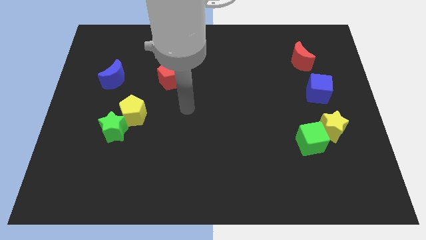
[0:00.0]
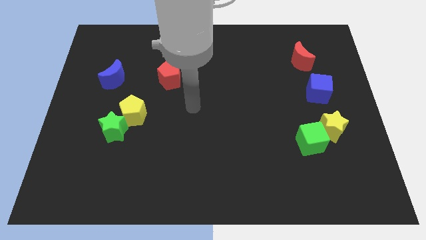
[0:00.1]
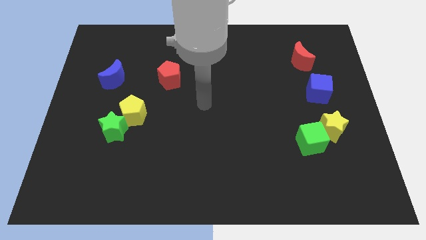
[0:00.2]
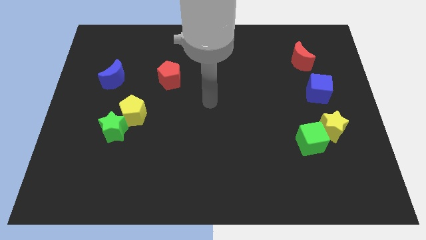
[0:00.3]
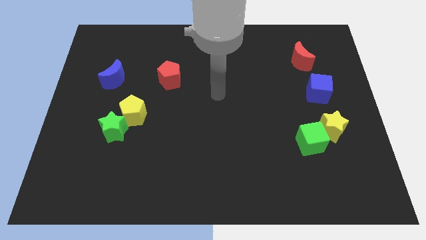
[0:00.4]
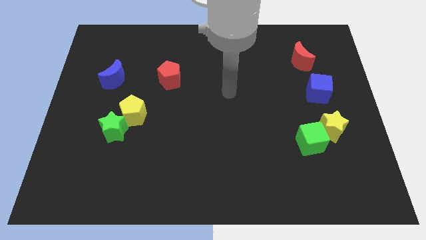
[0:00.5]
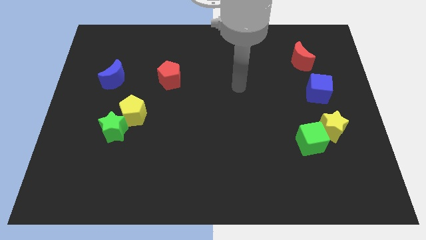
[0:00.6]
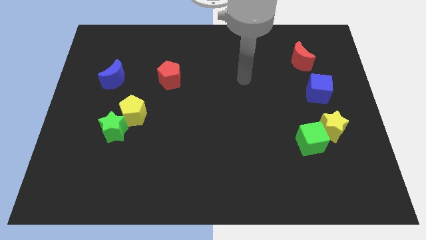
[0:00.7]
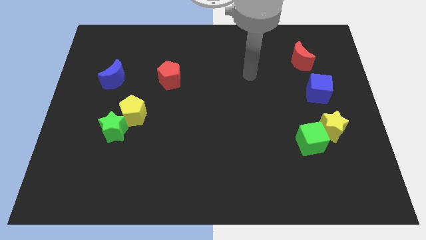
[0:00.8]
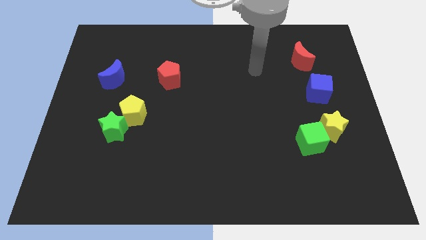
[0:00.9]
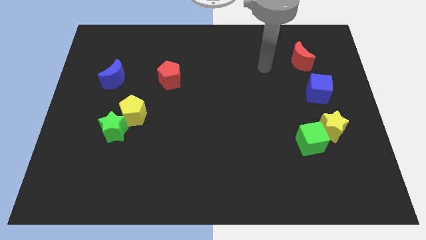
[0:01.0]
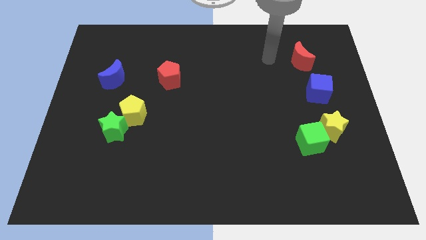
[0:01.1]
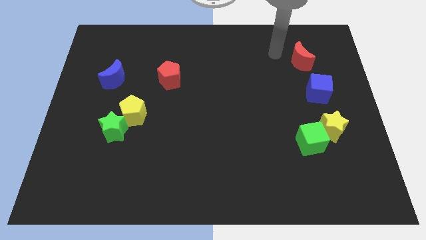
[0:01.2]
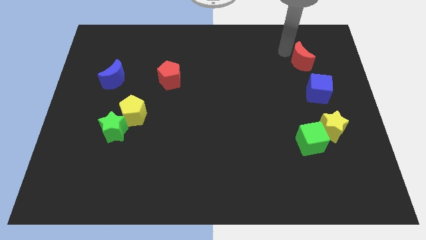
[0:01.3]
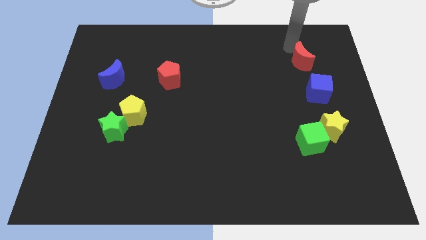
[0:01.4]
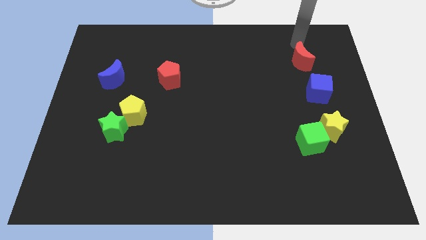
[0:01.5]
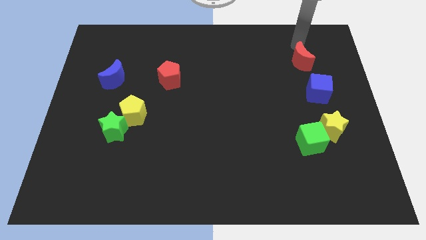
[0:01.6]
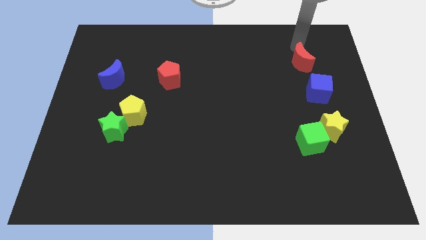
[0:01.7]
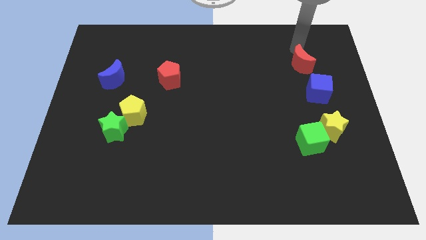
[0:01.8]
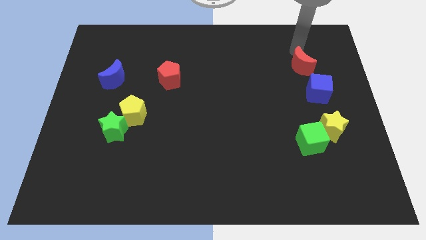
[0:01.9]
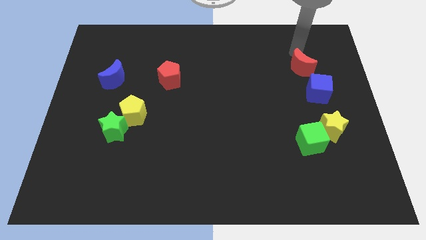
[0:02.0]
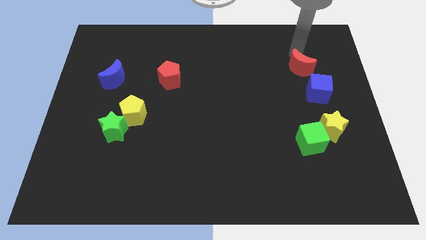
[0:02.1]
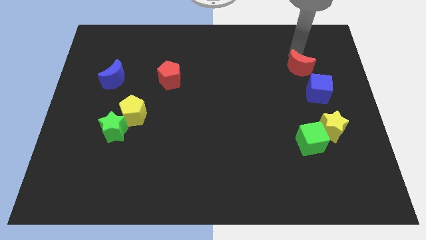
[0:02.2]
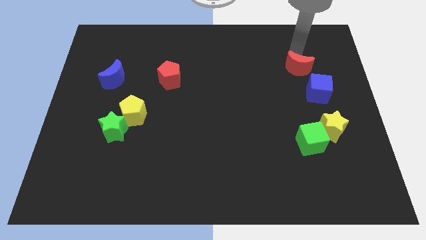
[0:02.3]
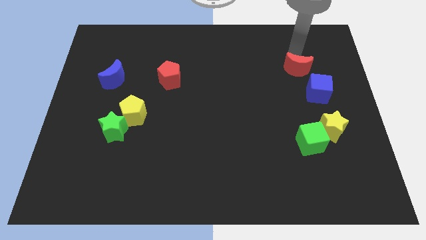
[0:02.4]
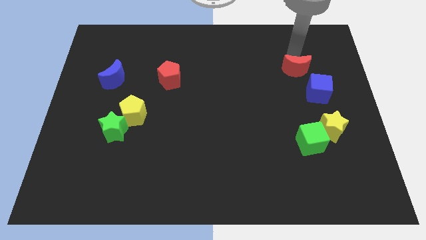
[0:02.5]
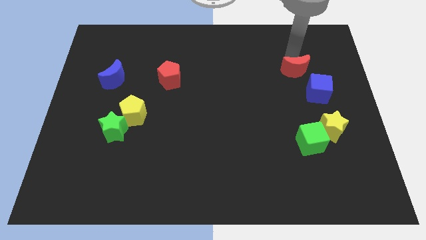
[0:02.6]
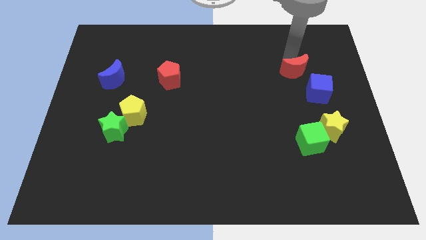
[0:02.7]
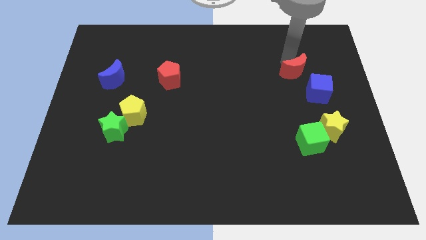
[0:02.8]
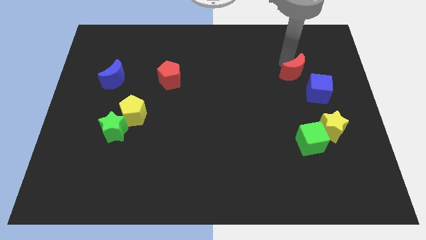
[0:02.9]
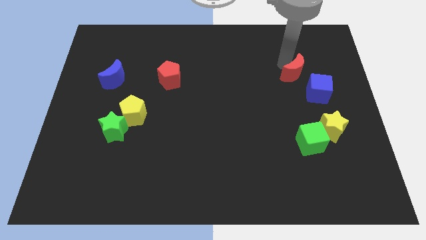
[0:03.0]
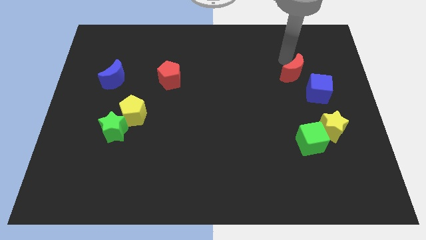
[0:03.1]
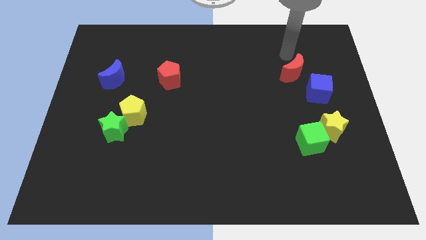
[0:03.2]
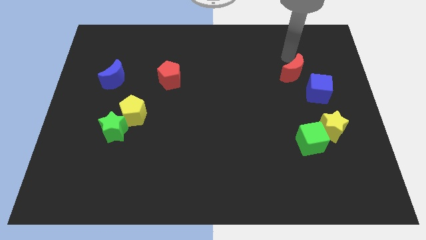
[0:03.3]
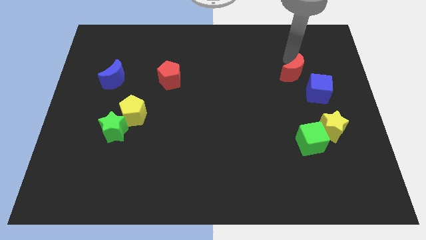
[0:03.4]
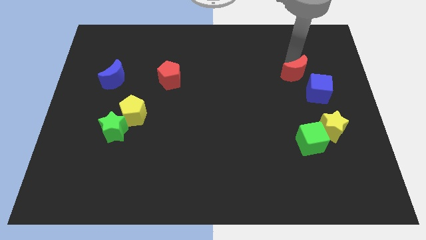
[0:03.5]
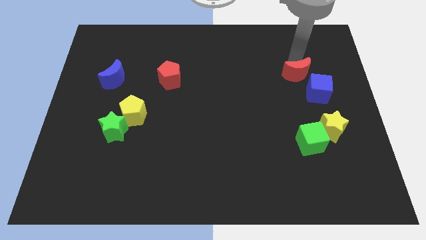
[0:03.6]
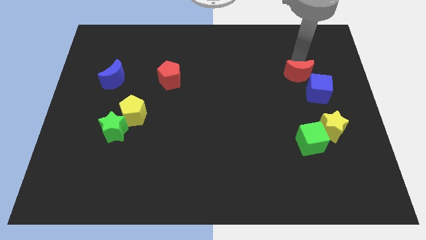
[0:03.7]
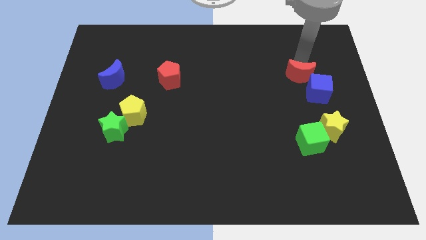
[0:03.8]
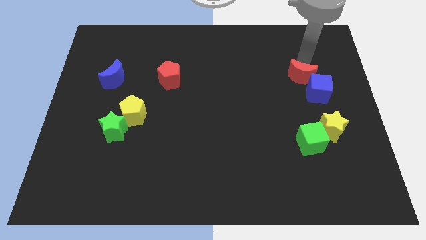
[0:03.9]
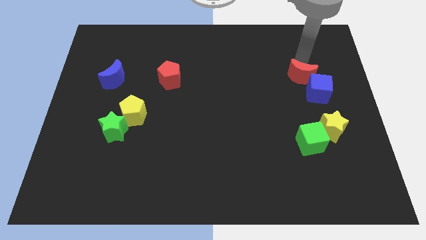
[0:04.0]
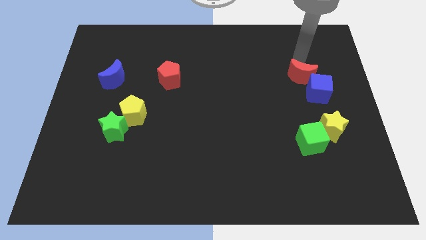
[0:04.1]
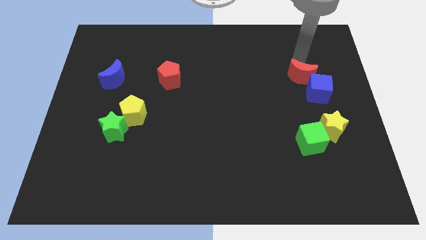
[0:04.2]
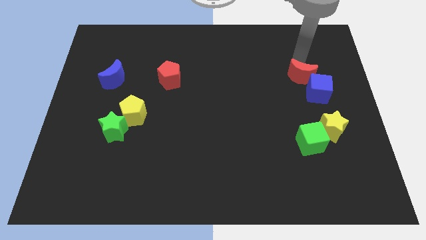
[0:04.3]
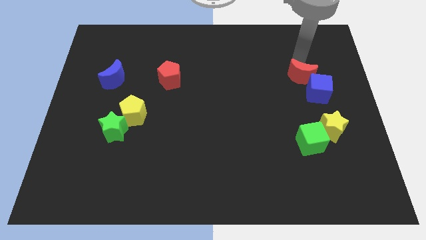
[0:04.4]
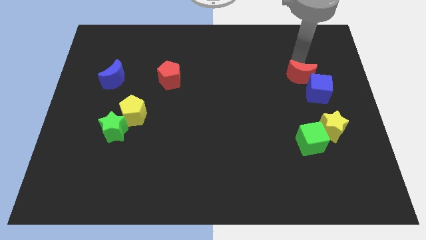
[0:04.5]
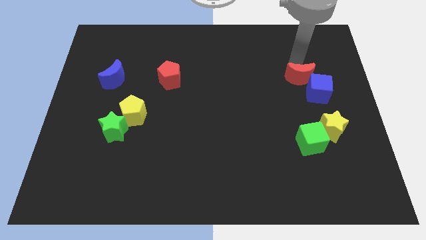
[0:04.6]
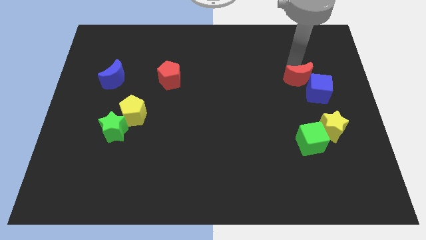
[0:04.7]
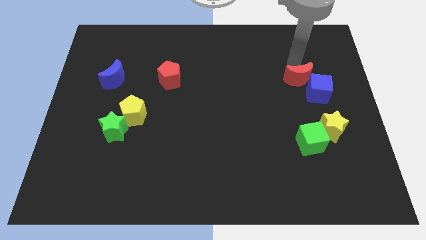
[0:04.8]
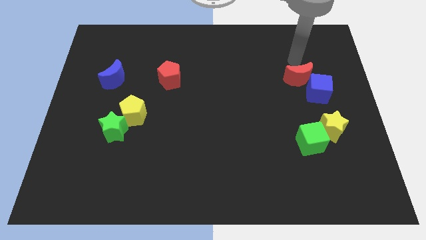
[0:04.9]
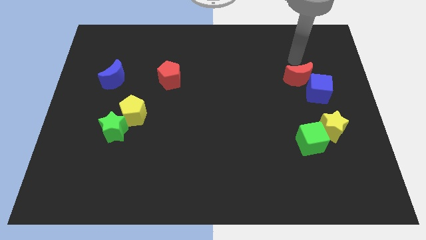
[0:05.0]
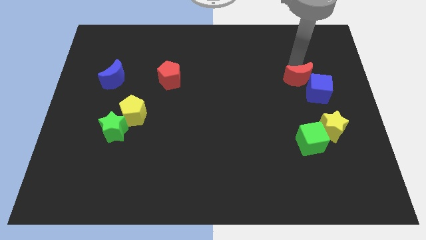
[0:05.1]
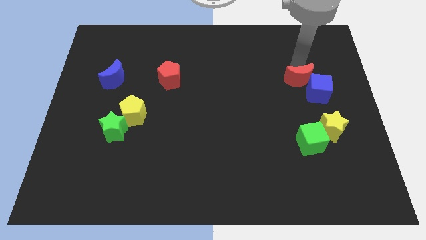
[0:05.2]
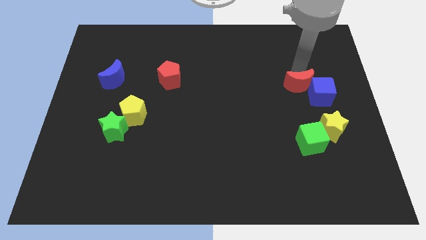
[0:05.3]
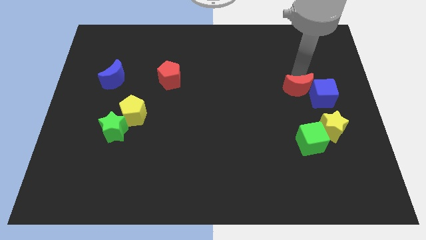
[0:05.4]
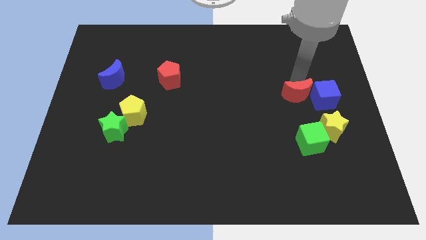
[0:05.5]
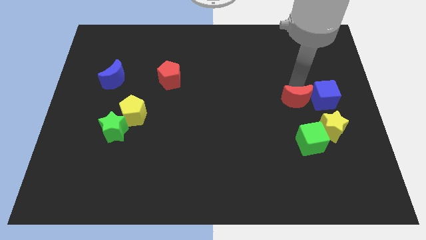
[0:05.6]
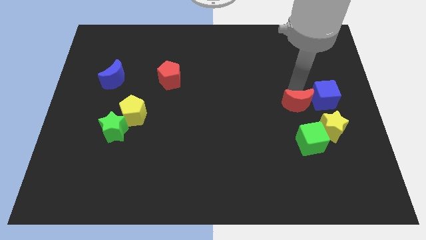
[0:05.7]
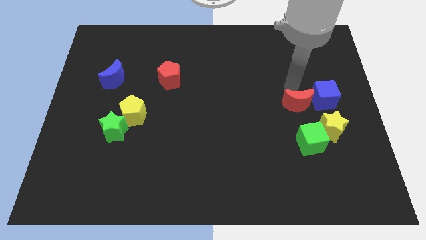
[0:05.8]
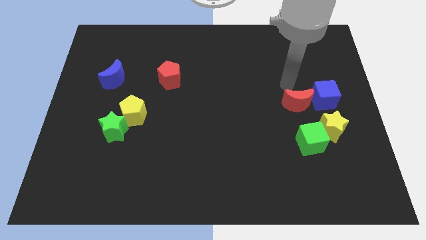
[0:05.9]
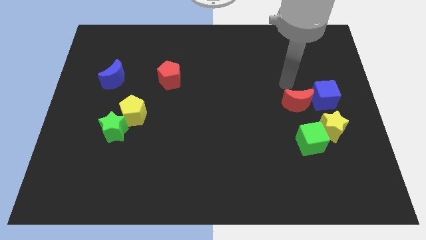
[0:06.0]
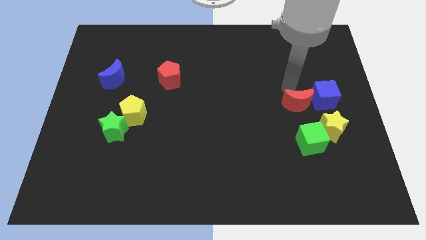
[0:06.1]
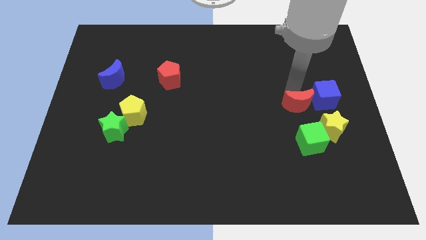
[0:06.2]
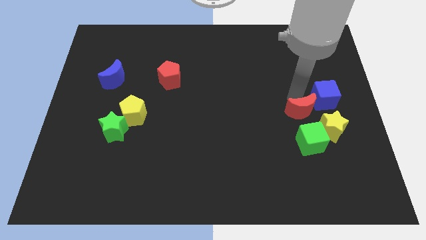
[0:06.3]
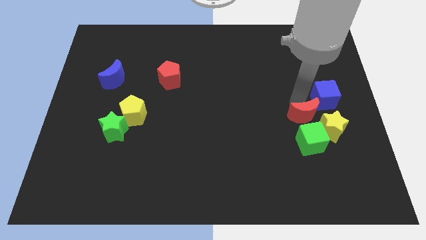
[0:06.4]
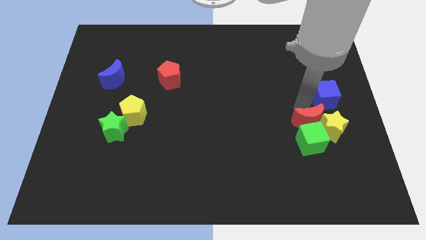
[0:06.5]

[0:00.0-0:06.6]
push the red moon towards the green cube
